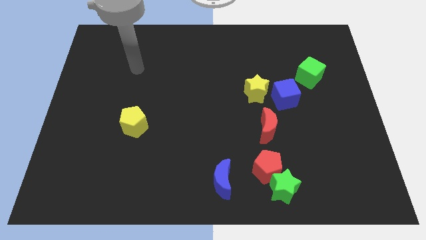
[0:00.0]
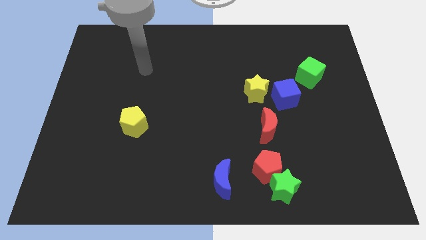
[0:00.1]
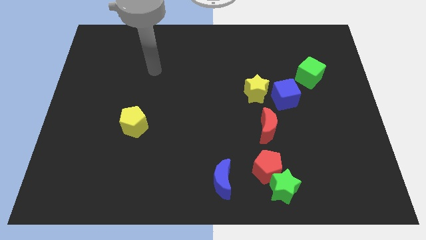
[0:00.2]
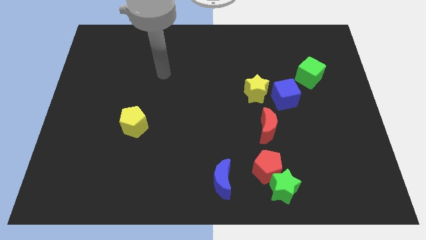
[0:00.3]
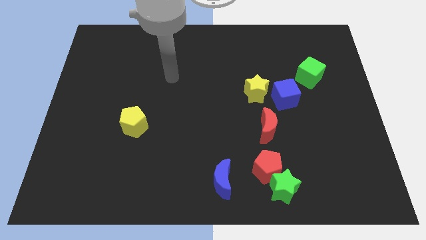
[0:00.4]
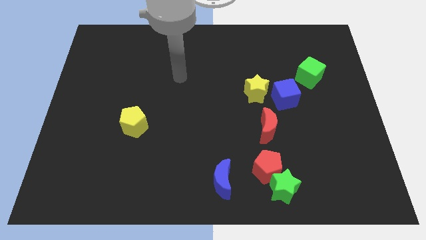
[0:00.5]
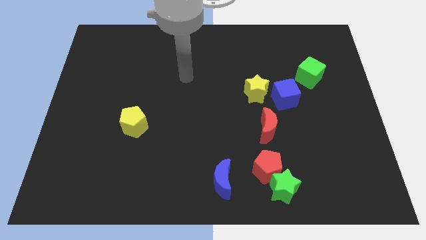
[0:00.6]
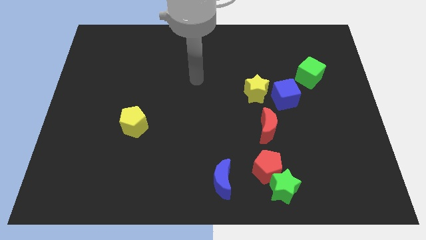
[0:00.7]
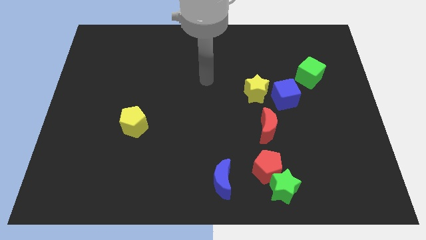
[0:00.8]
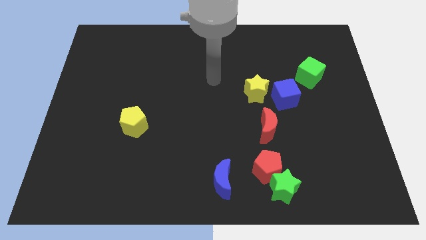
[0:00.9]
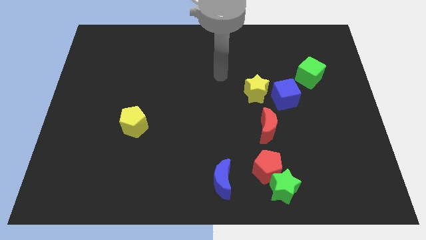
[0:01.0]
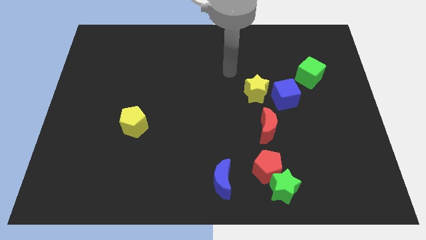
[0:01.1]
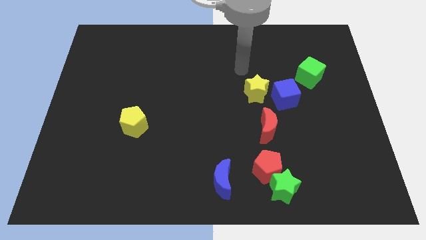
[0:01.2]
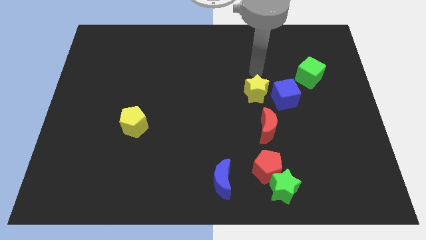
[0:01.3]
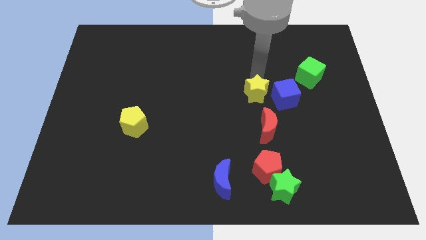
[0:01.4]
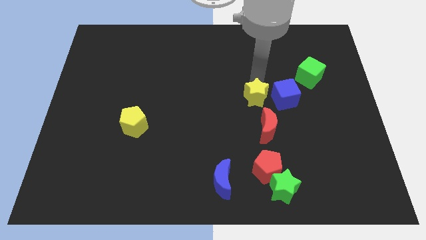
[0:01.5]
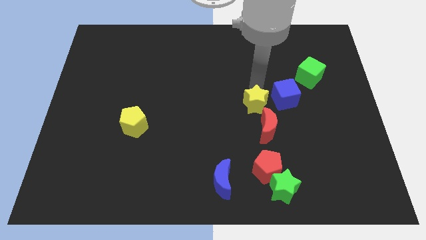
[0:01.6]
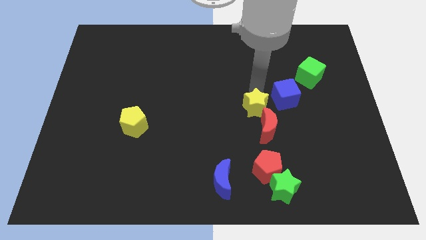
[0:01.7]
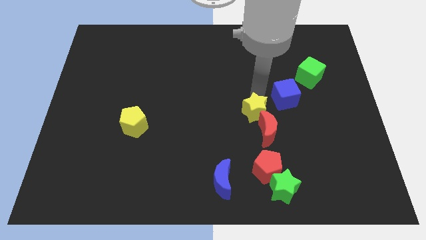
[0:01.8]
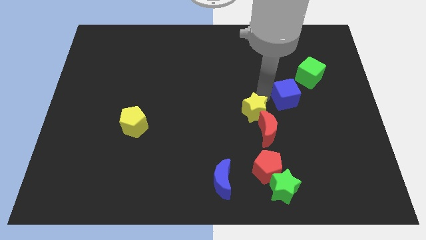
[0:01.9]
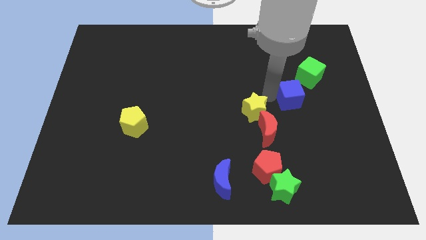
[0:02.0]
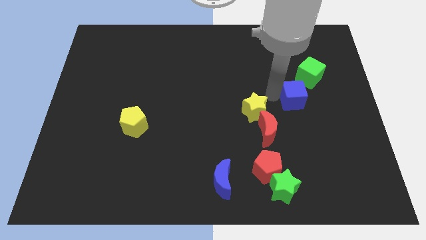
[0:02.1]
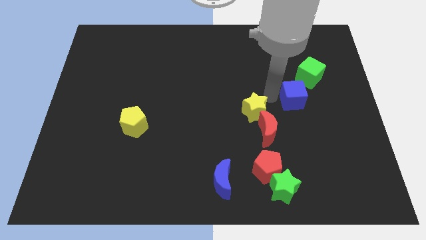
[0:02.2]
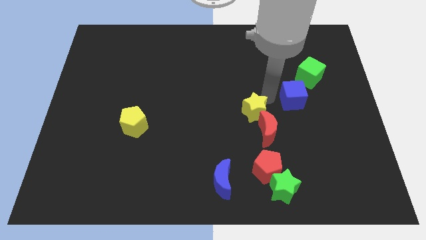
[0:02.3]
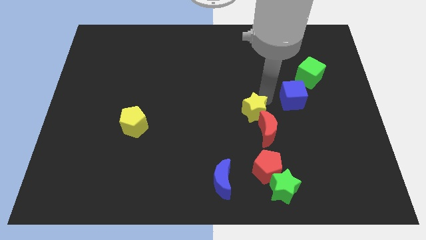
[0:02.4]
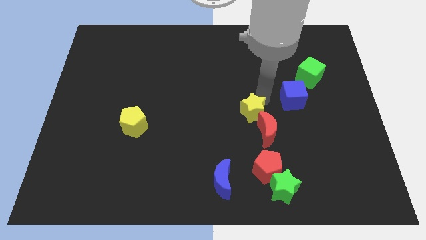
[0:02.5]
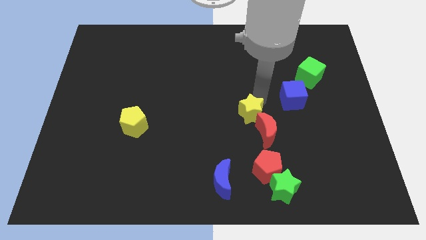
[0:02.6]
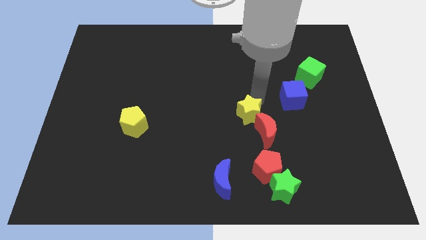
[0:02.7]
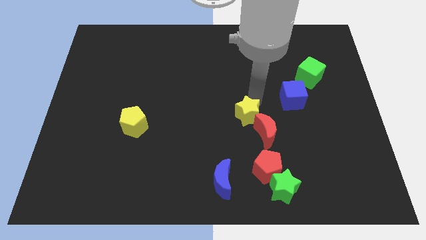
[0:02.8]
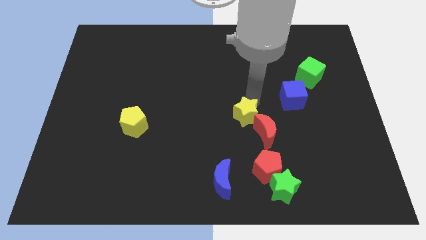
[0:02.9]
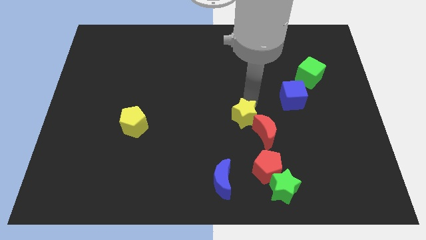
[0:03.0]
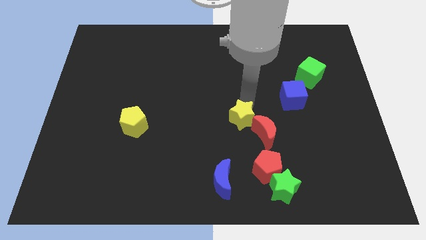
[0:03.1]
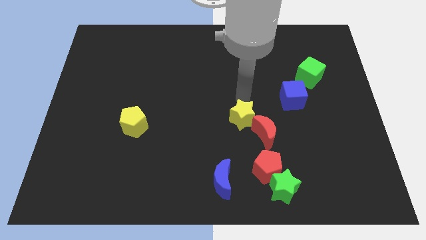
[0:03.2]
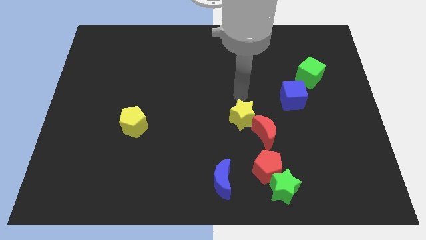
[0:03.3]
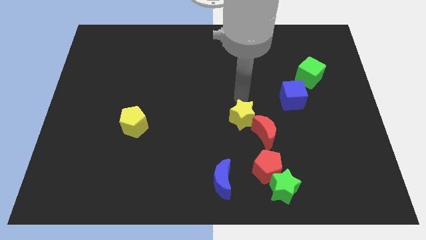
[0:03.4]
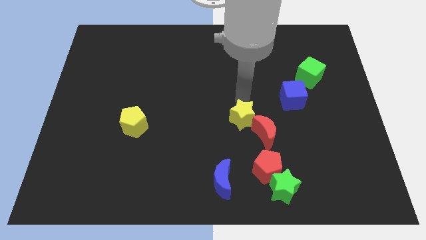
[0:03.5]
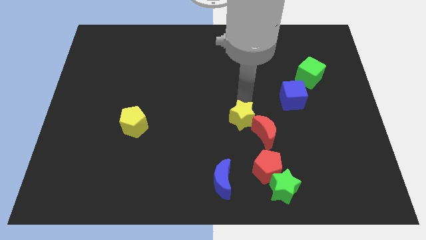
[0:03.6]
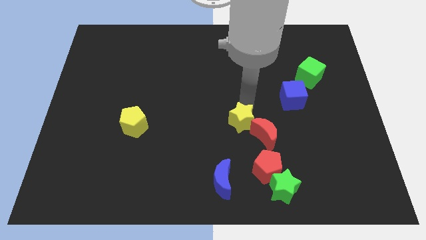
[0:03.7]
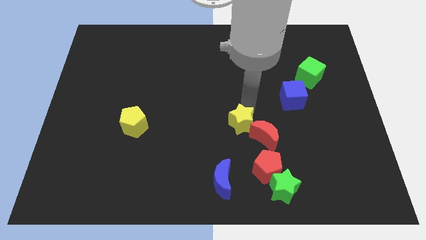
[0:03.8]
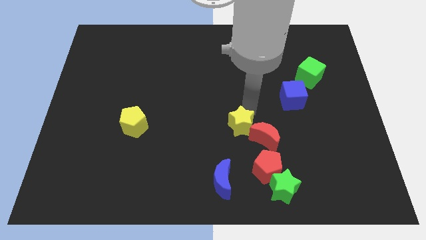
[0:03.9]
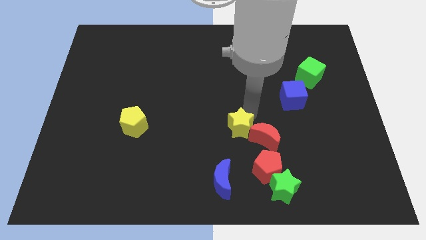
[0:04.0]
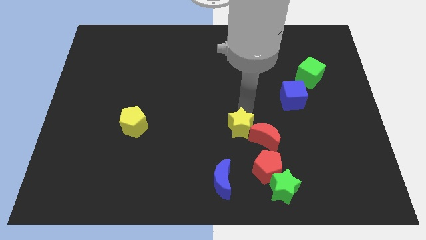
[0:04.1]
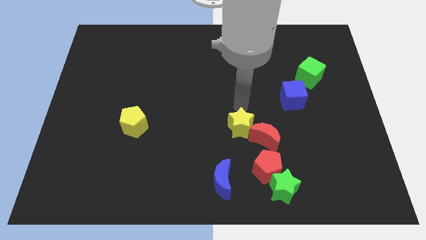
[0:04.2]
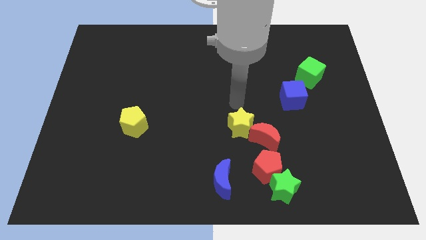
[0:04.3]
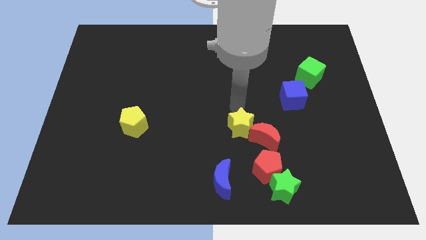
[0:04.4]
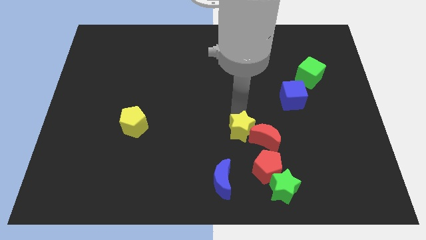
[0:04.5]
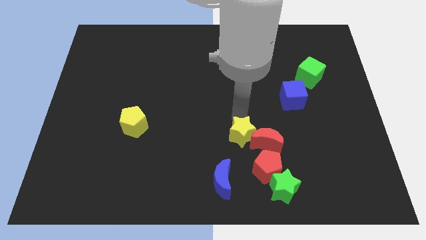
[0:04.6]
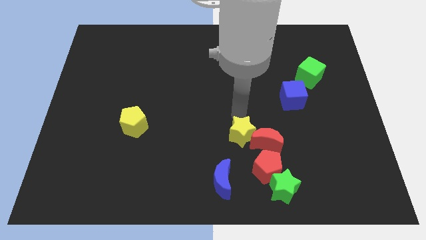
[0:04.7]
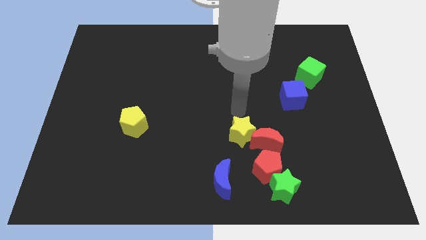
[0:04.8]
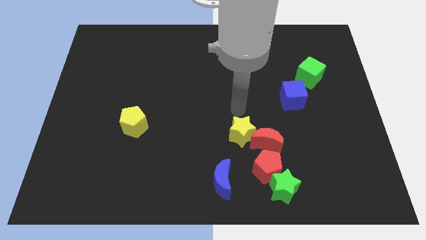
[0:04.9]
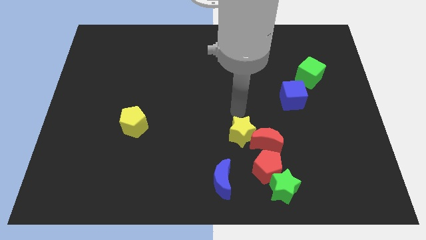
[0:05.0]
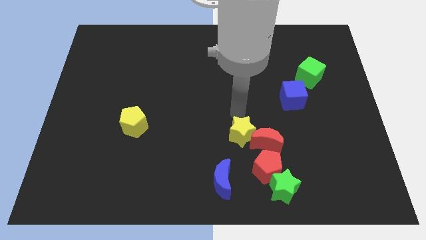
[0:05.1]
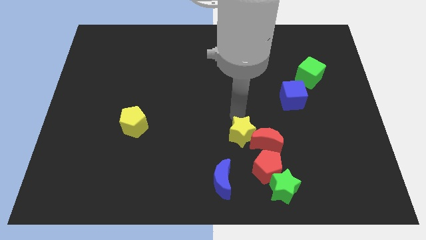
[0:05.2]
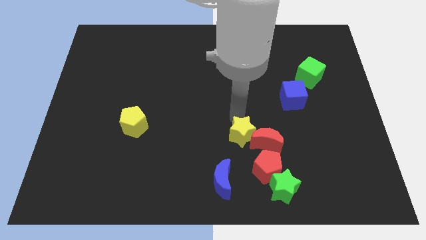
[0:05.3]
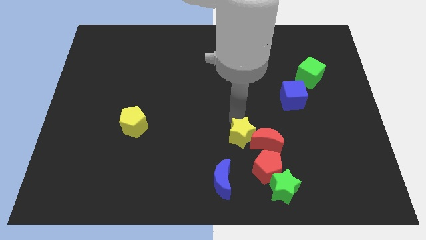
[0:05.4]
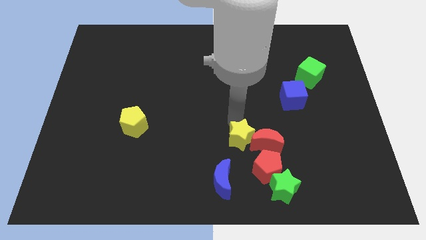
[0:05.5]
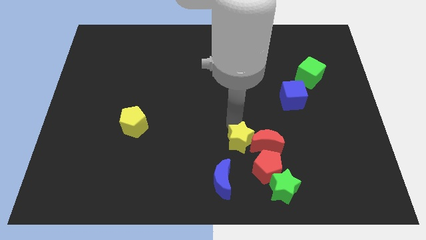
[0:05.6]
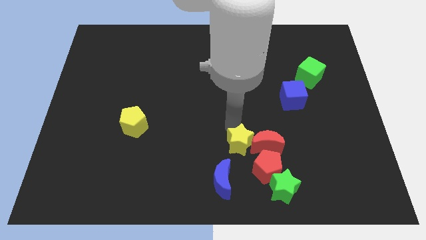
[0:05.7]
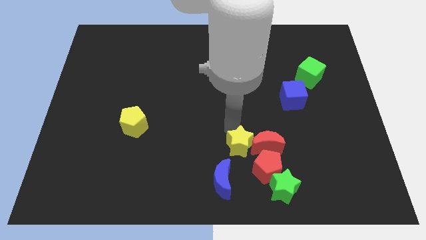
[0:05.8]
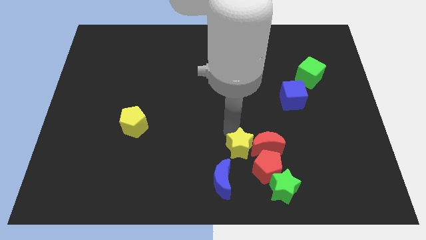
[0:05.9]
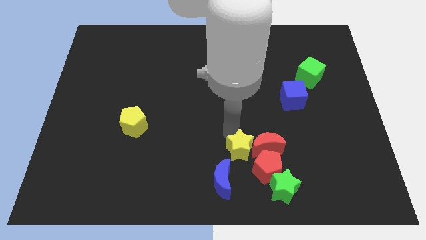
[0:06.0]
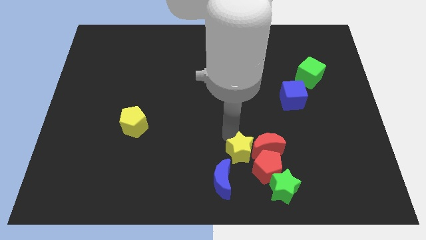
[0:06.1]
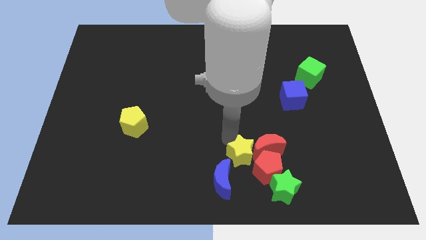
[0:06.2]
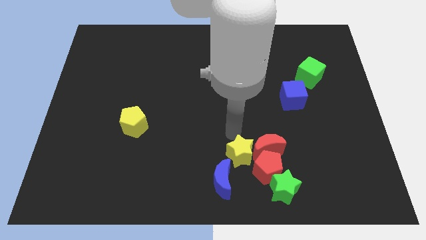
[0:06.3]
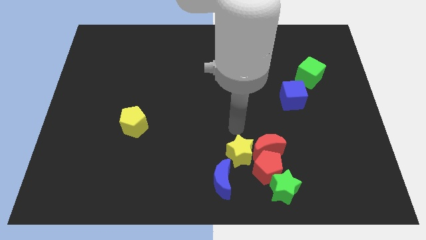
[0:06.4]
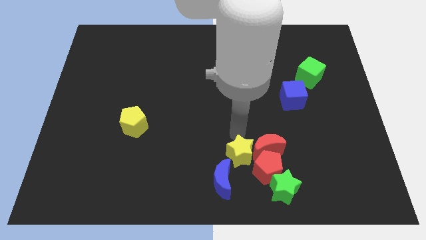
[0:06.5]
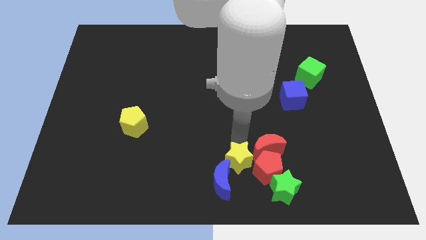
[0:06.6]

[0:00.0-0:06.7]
move the yellow star to the bottom
